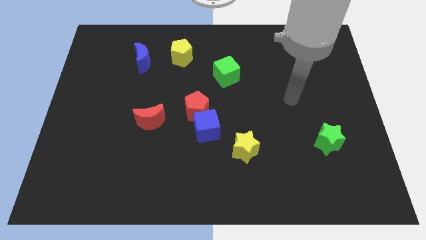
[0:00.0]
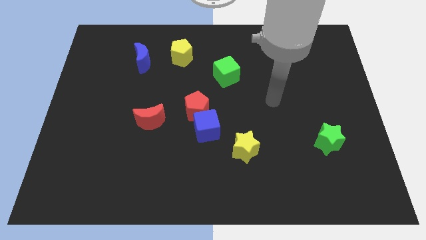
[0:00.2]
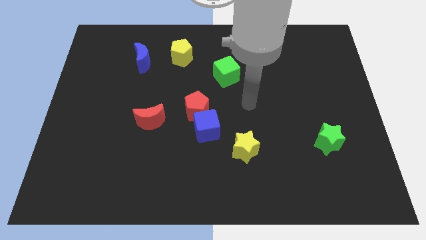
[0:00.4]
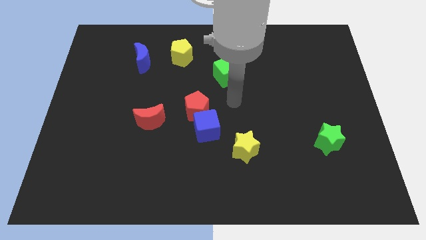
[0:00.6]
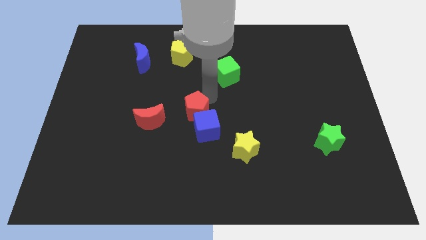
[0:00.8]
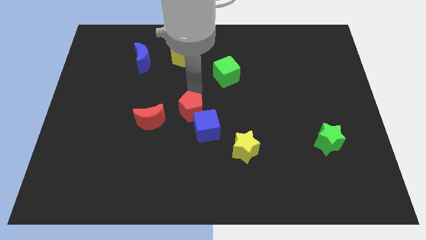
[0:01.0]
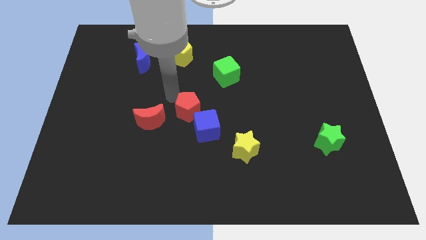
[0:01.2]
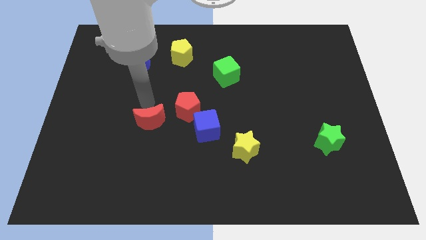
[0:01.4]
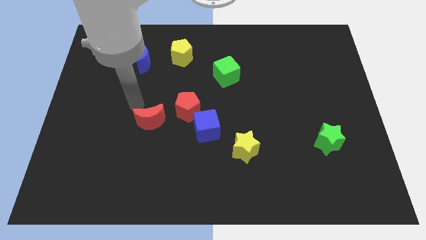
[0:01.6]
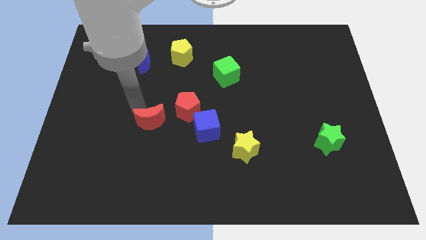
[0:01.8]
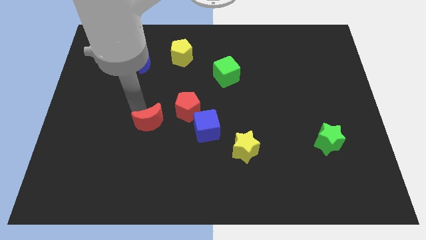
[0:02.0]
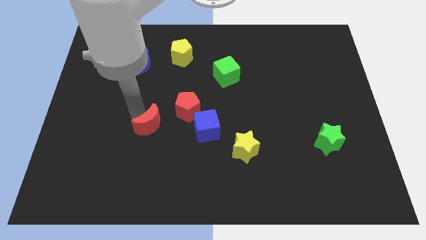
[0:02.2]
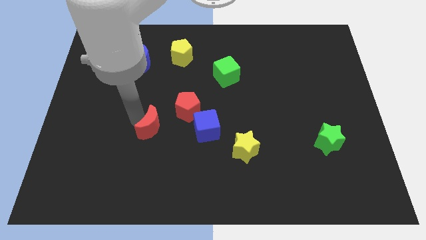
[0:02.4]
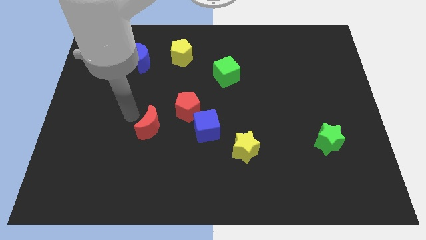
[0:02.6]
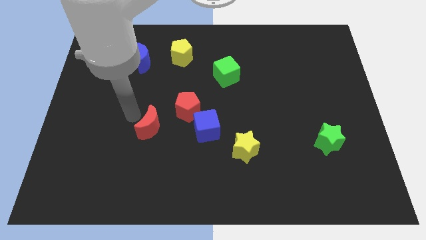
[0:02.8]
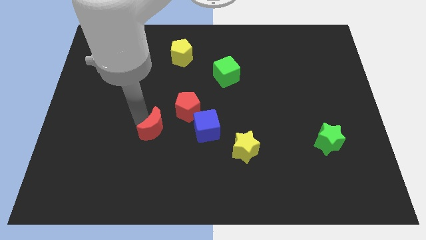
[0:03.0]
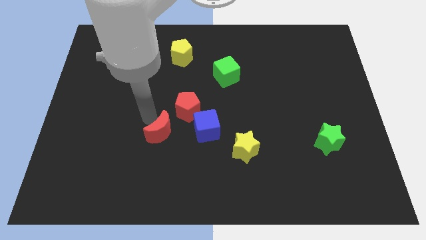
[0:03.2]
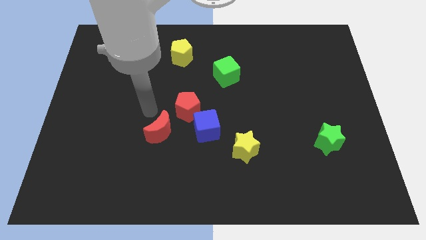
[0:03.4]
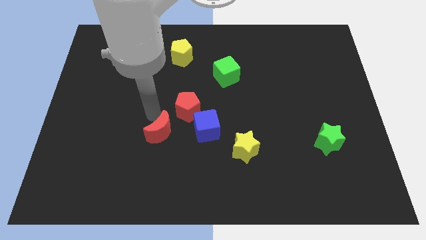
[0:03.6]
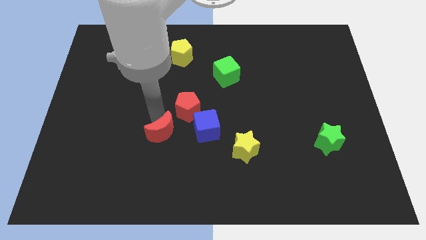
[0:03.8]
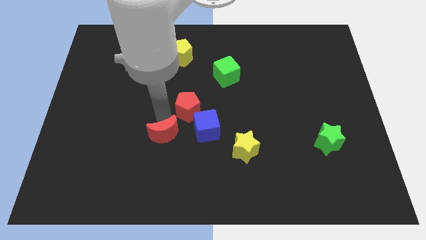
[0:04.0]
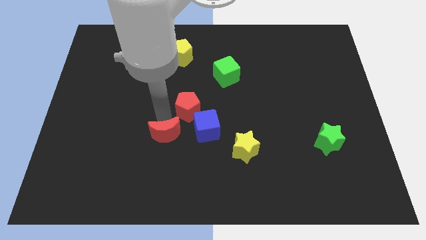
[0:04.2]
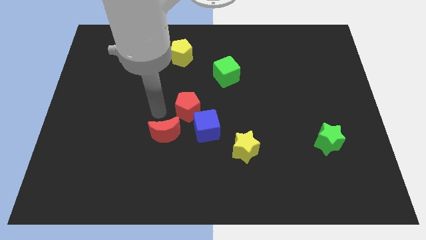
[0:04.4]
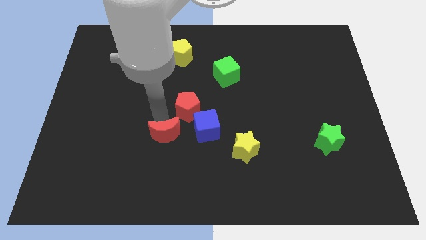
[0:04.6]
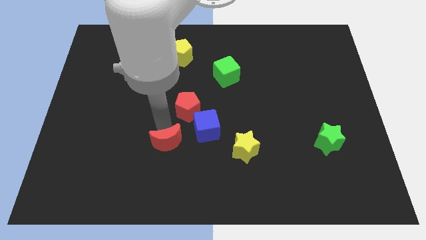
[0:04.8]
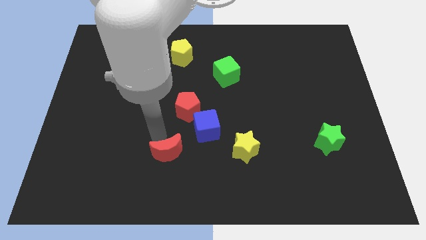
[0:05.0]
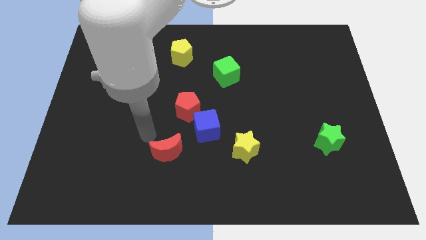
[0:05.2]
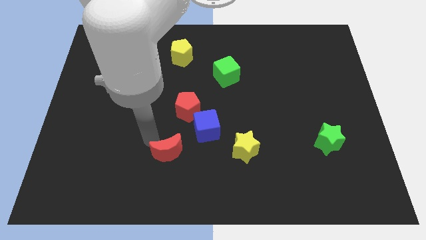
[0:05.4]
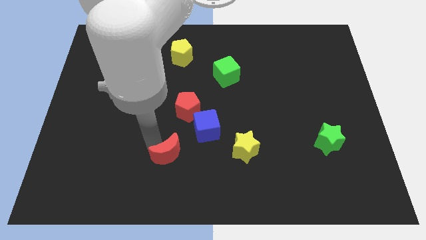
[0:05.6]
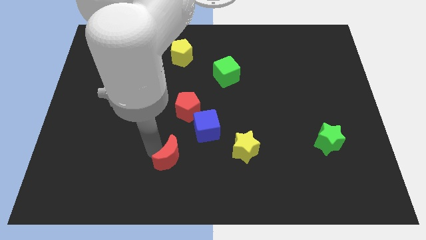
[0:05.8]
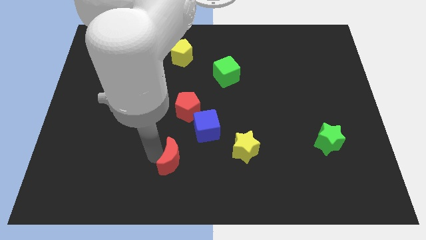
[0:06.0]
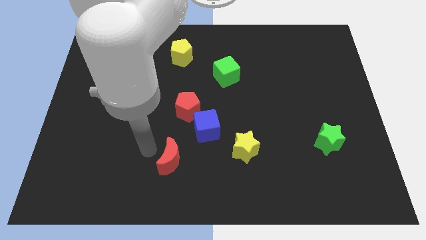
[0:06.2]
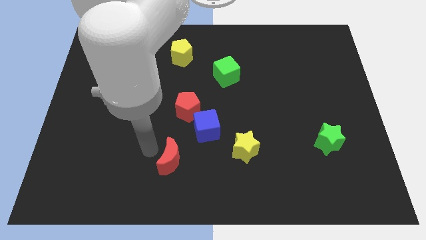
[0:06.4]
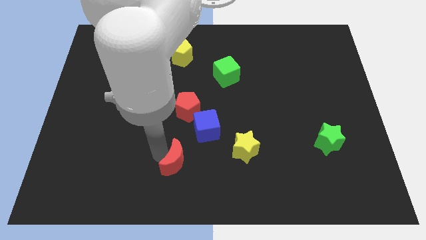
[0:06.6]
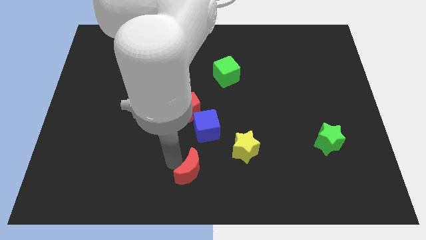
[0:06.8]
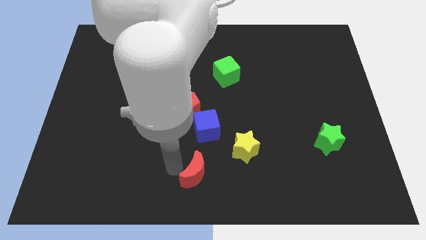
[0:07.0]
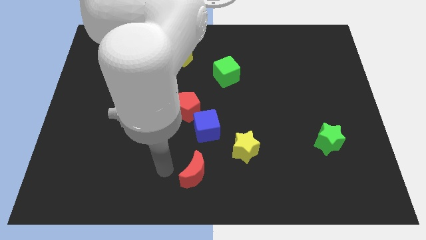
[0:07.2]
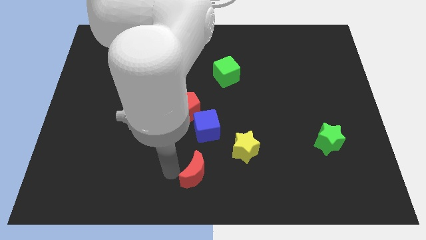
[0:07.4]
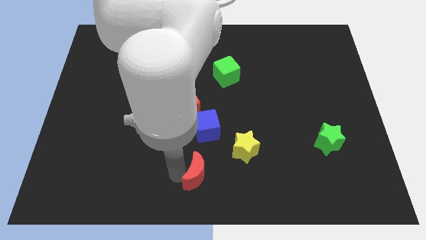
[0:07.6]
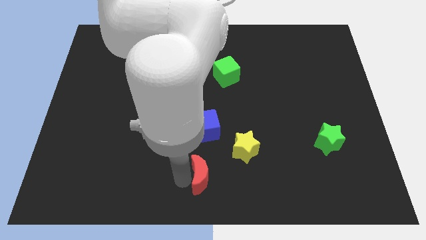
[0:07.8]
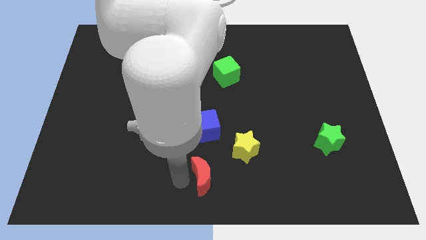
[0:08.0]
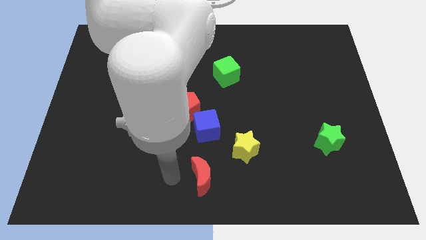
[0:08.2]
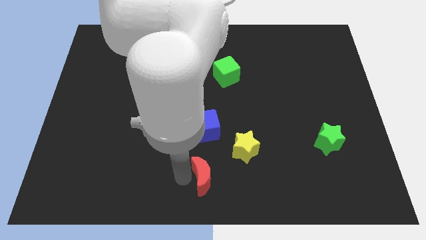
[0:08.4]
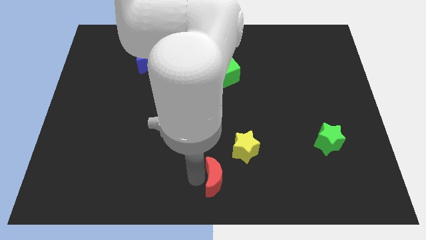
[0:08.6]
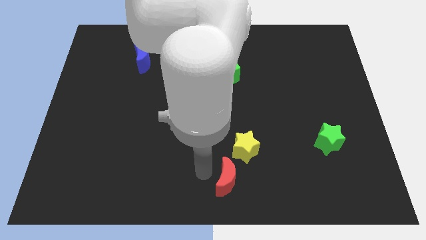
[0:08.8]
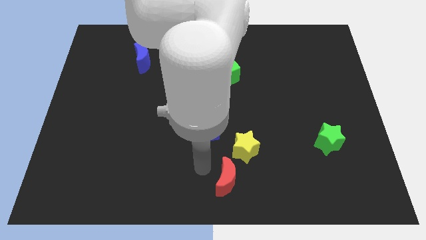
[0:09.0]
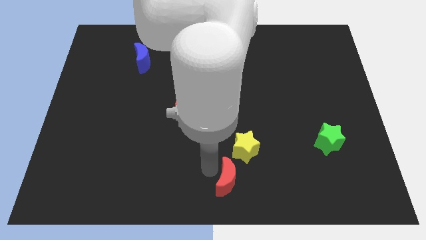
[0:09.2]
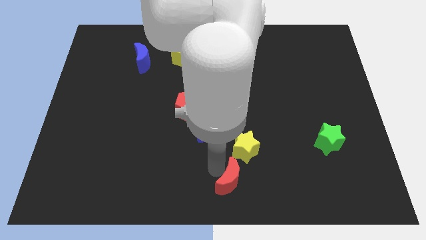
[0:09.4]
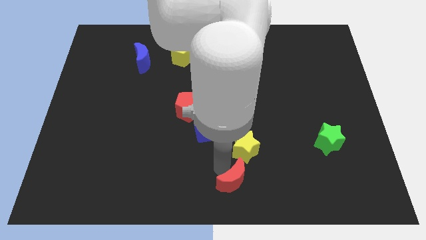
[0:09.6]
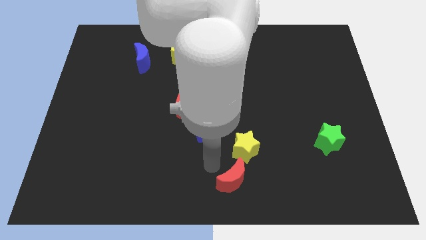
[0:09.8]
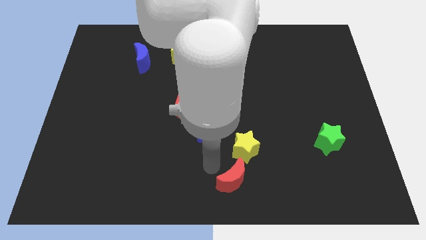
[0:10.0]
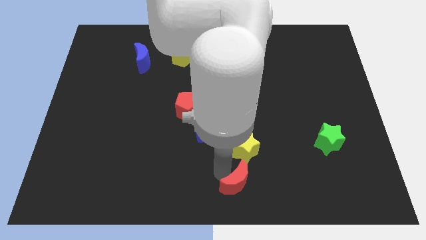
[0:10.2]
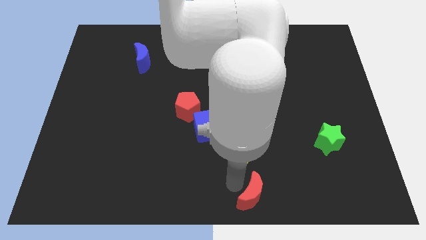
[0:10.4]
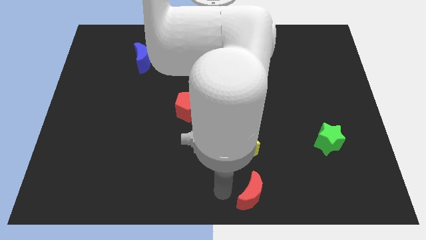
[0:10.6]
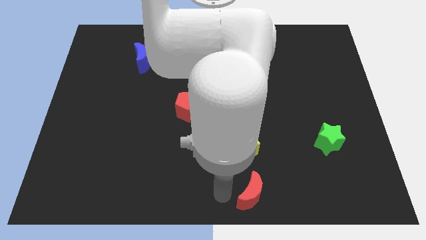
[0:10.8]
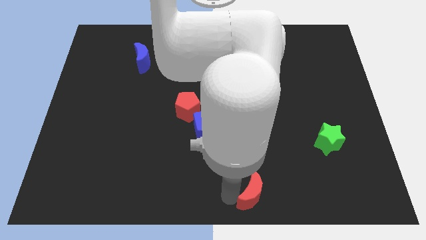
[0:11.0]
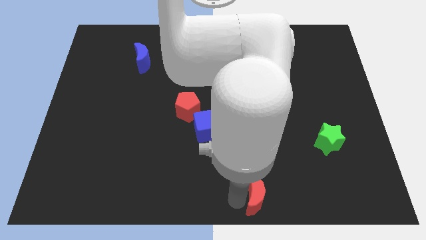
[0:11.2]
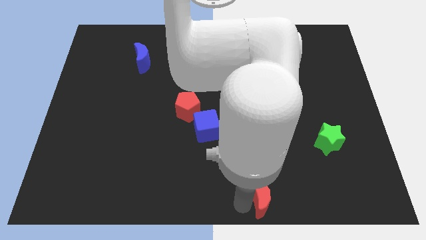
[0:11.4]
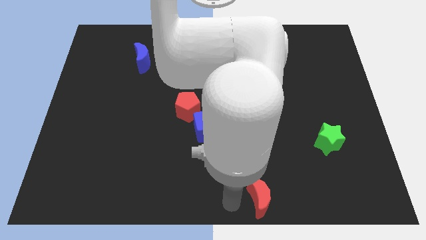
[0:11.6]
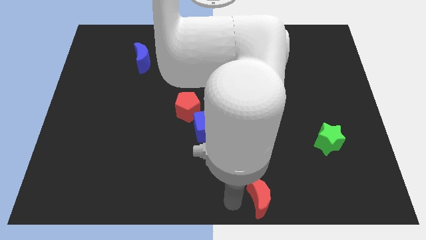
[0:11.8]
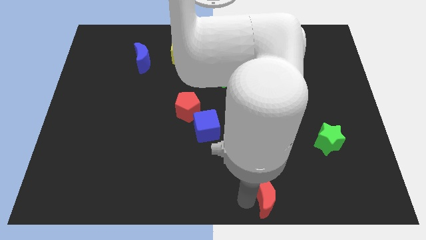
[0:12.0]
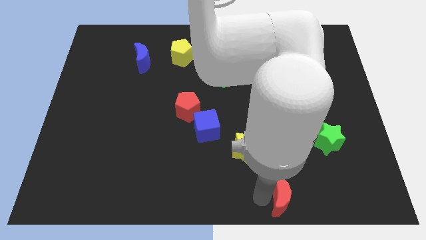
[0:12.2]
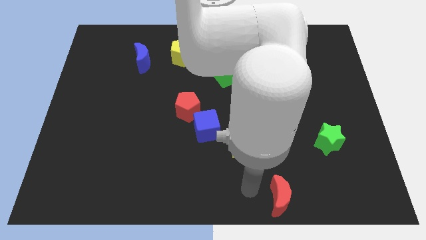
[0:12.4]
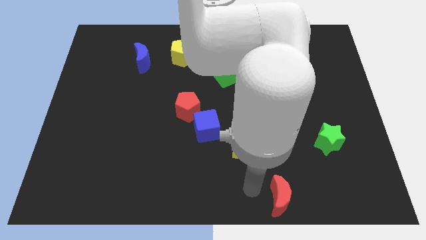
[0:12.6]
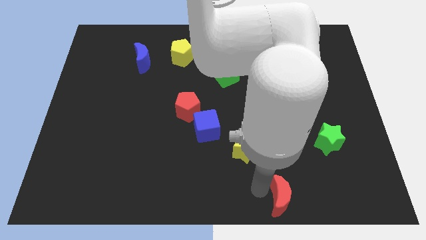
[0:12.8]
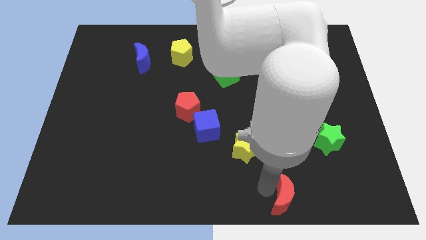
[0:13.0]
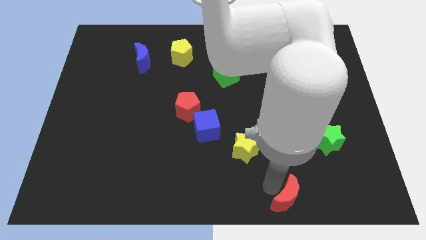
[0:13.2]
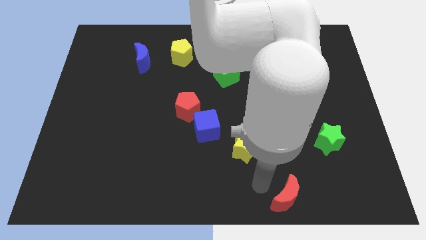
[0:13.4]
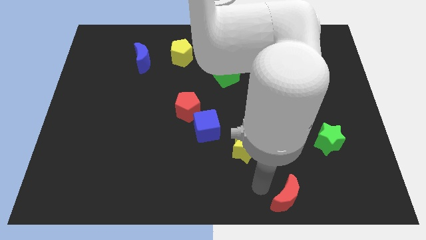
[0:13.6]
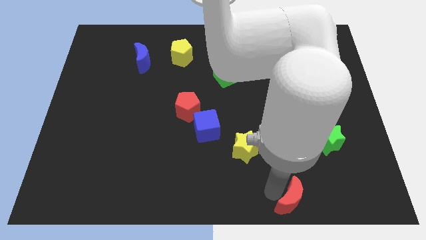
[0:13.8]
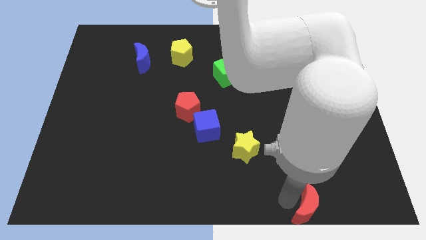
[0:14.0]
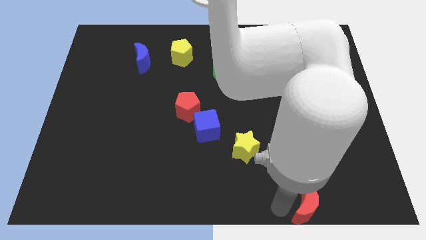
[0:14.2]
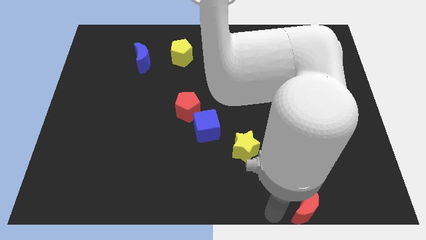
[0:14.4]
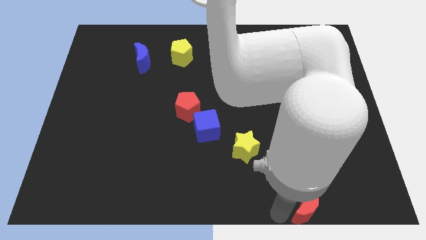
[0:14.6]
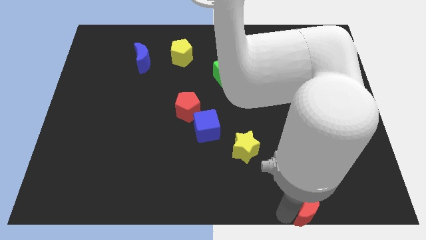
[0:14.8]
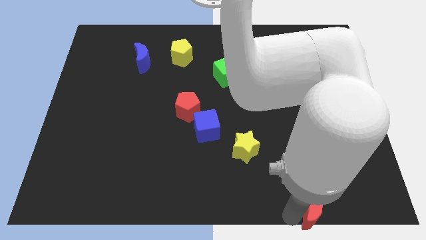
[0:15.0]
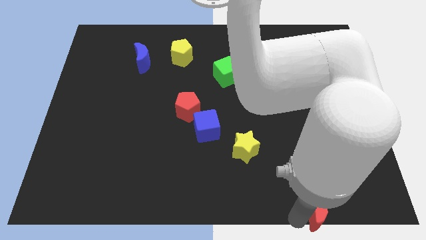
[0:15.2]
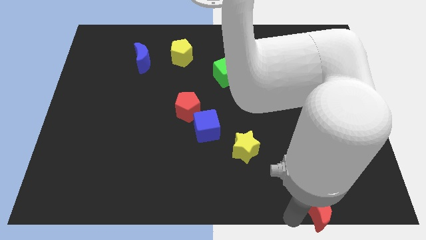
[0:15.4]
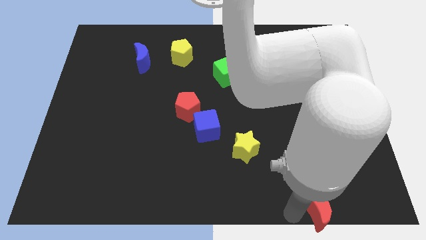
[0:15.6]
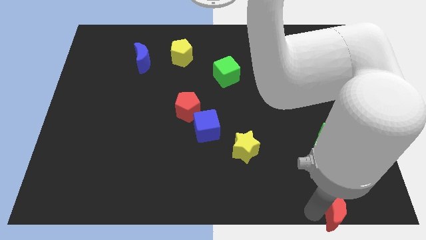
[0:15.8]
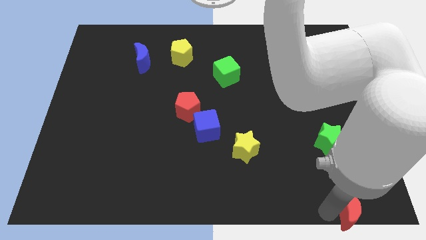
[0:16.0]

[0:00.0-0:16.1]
push the red moon to the bottom right
